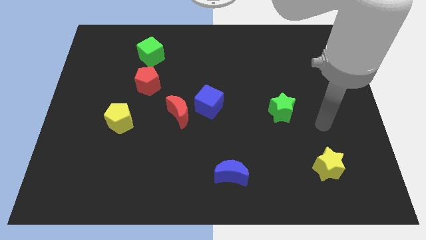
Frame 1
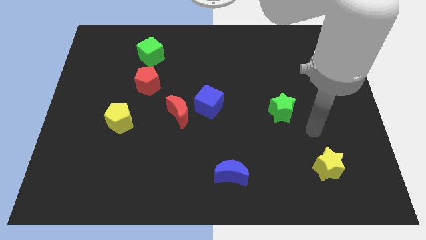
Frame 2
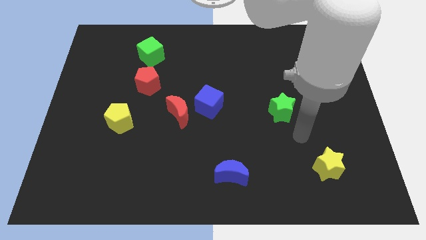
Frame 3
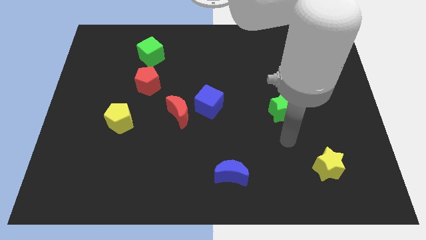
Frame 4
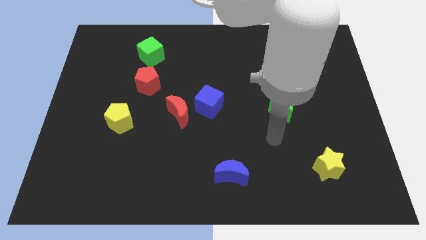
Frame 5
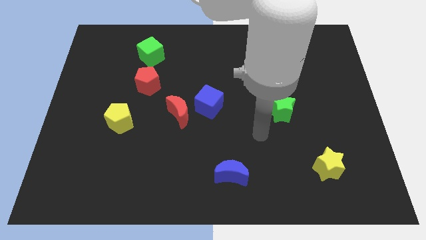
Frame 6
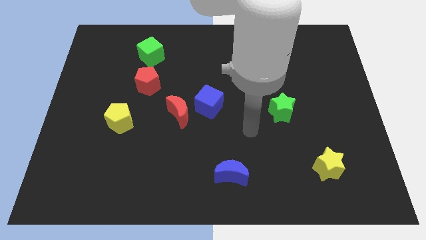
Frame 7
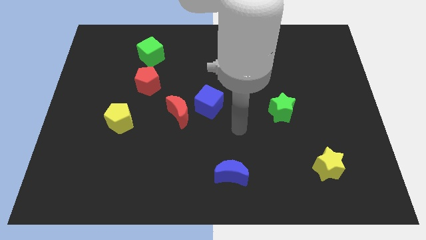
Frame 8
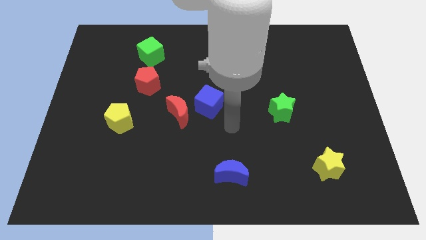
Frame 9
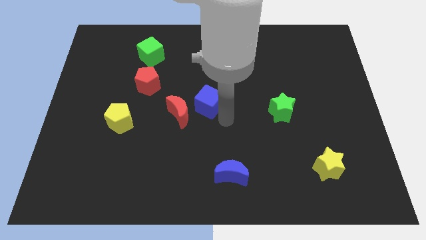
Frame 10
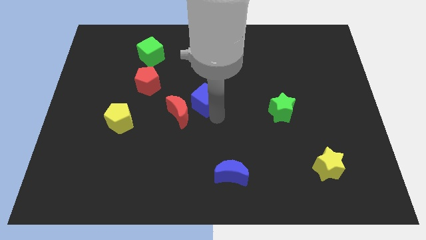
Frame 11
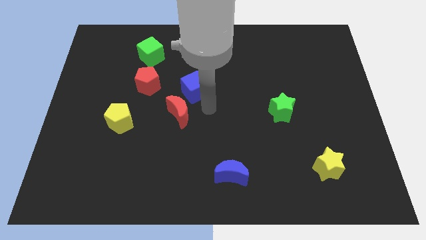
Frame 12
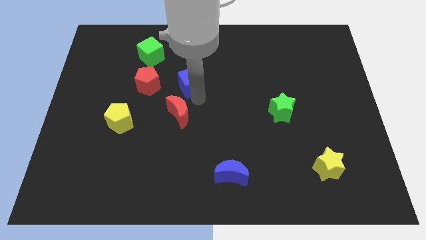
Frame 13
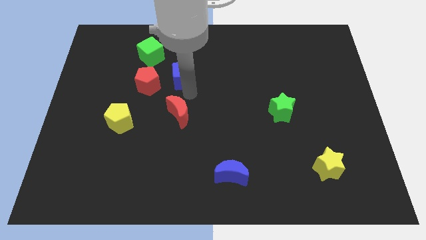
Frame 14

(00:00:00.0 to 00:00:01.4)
separate the red moon from the blue cube

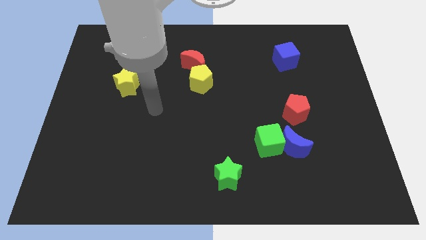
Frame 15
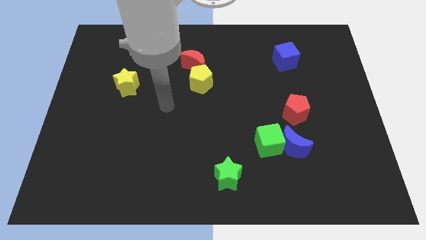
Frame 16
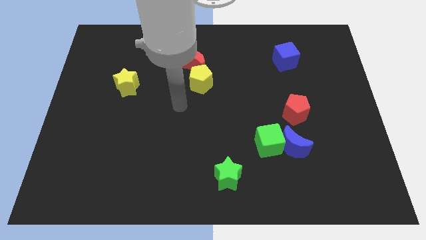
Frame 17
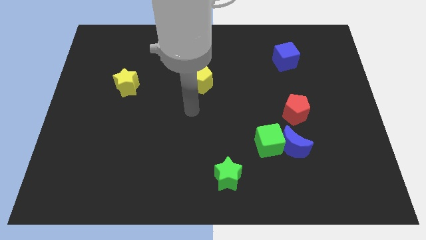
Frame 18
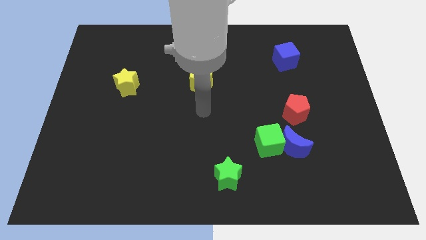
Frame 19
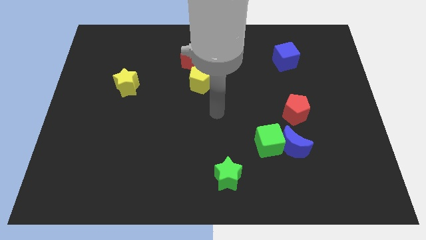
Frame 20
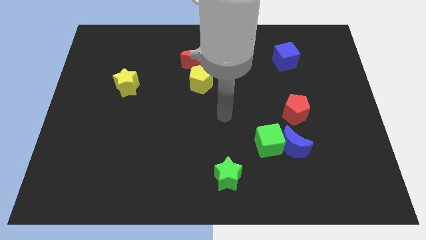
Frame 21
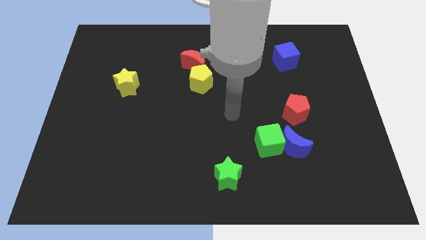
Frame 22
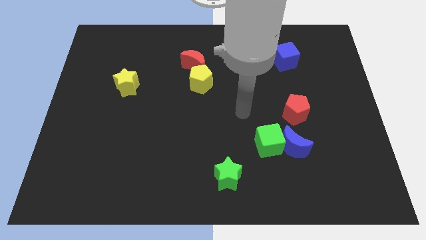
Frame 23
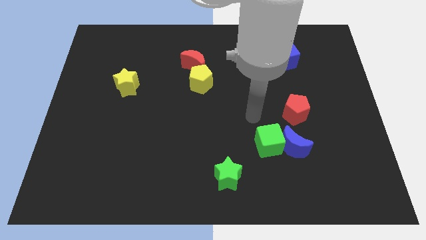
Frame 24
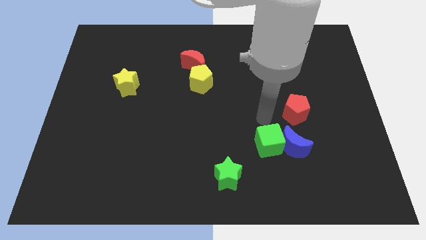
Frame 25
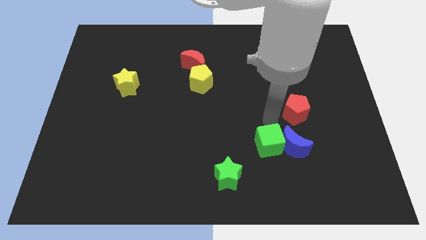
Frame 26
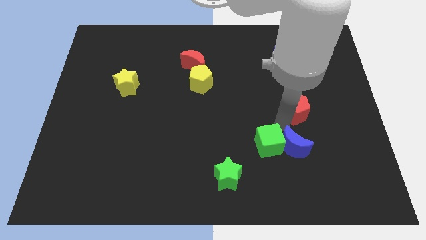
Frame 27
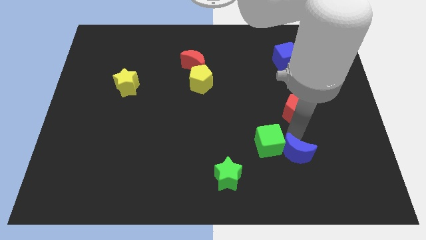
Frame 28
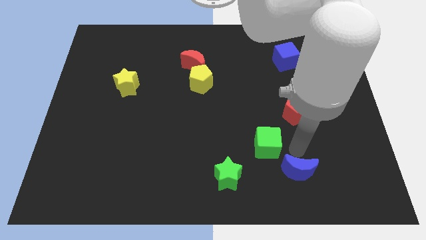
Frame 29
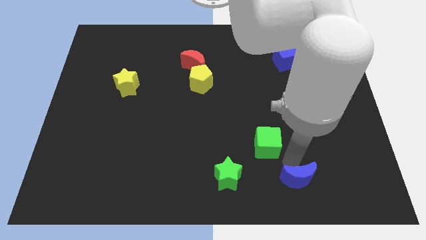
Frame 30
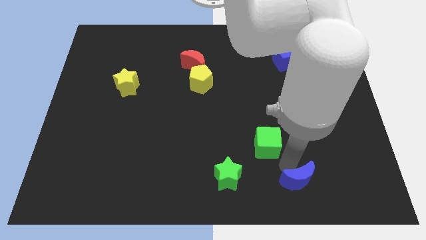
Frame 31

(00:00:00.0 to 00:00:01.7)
pull the green cube apart from the blue moon

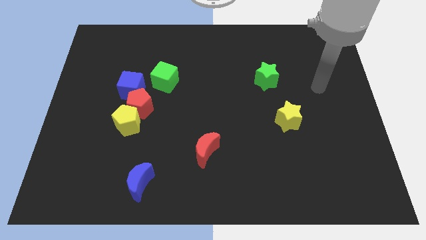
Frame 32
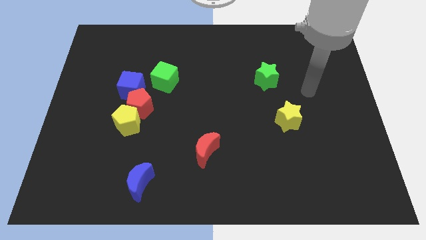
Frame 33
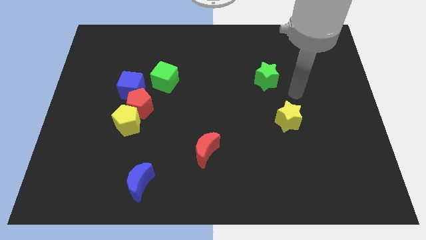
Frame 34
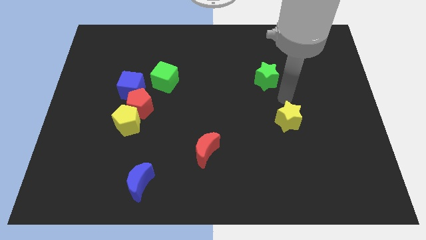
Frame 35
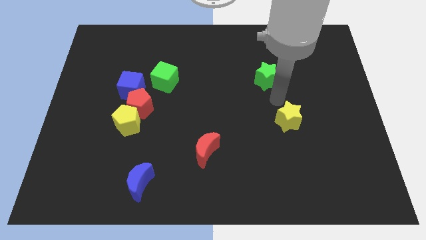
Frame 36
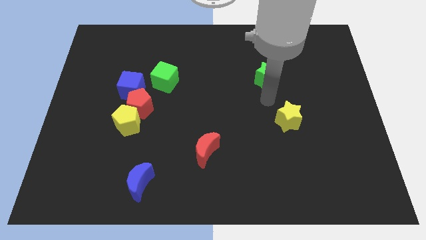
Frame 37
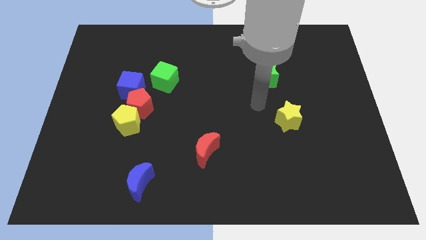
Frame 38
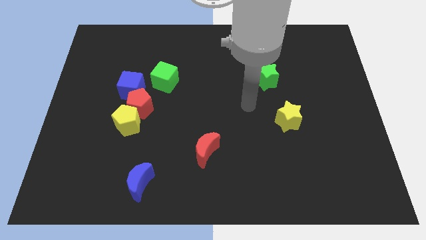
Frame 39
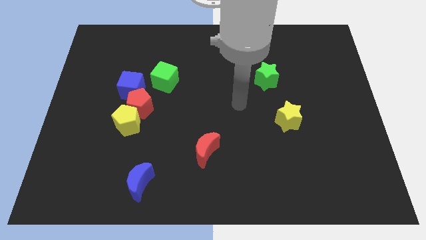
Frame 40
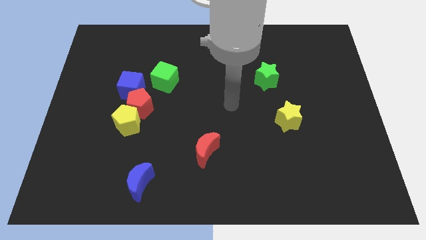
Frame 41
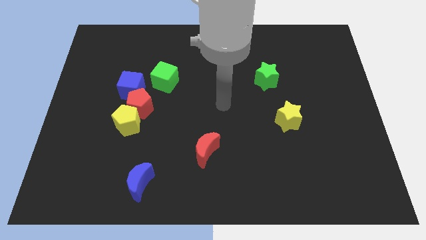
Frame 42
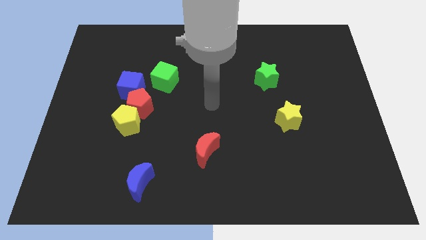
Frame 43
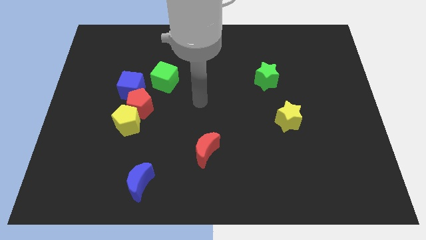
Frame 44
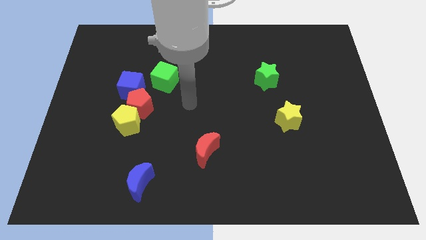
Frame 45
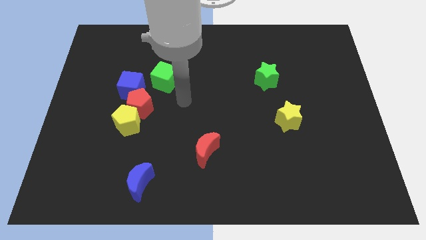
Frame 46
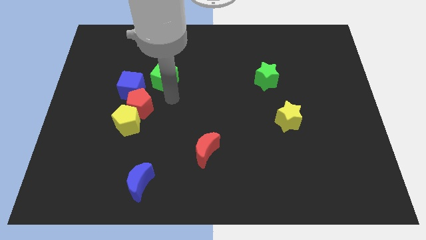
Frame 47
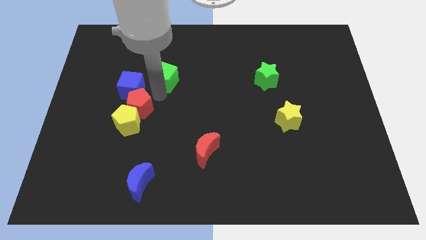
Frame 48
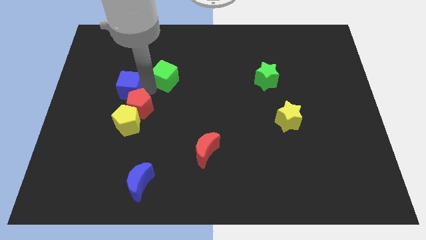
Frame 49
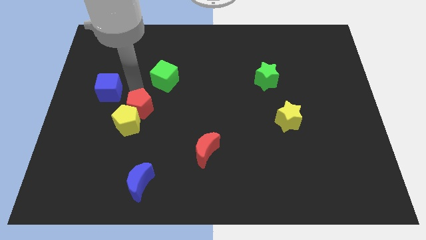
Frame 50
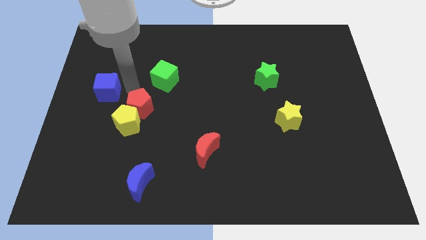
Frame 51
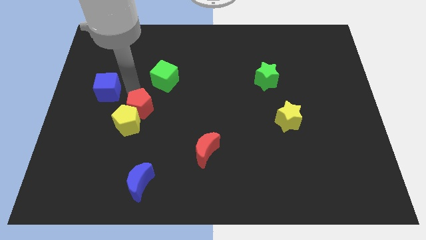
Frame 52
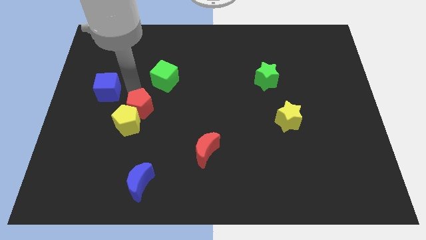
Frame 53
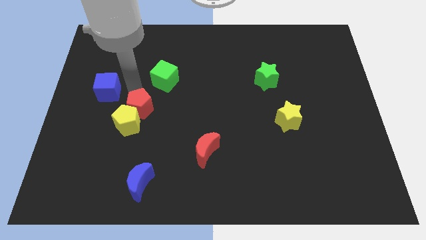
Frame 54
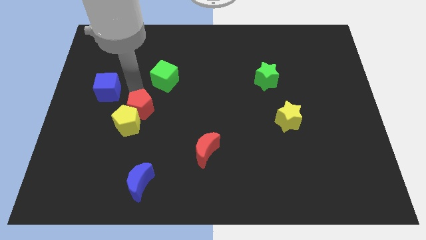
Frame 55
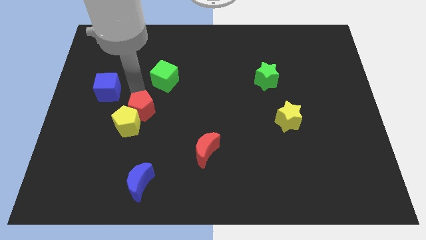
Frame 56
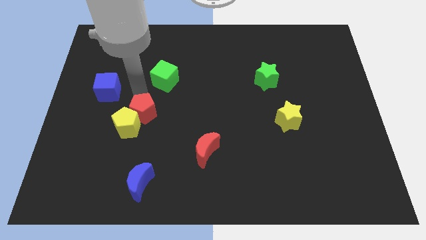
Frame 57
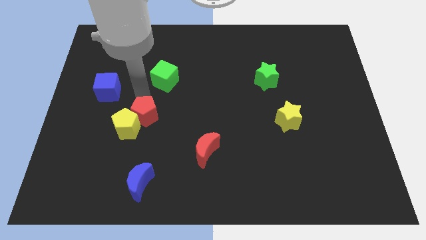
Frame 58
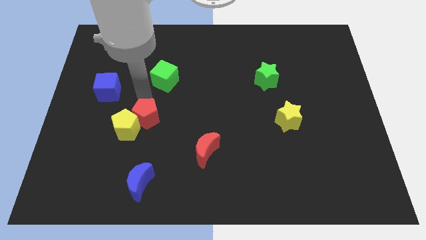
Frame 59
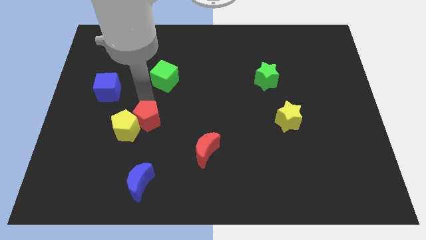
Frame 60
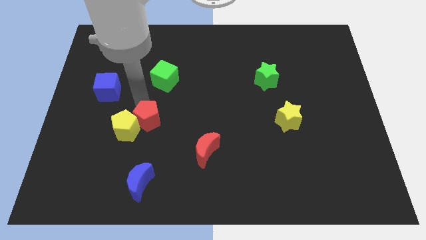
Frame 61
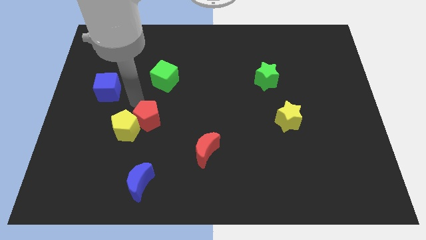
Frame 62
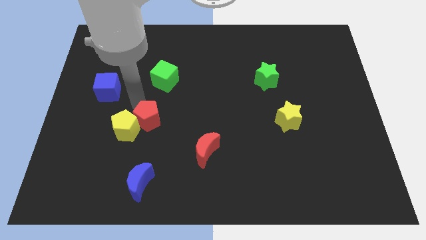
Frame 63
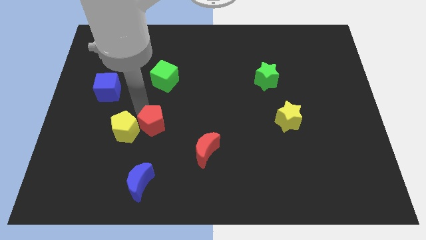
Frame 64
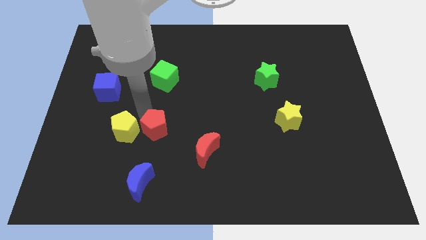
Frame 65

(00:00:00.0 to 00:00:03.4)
move the red pentagon away from the yellow pentagon, blue cube, and green cube

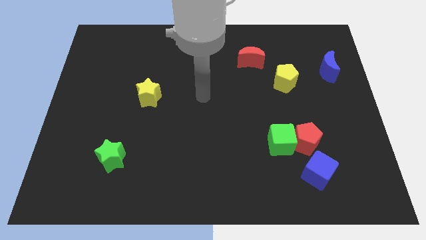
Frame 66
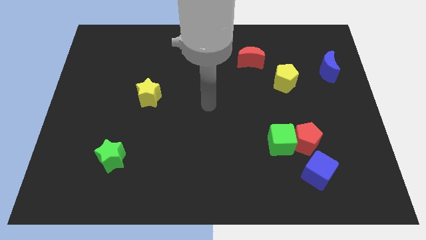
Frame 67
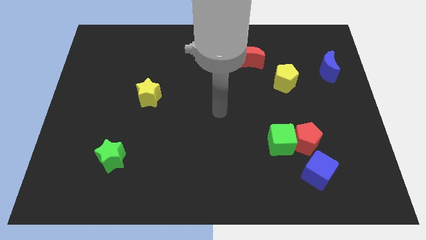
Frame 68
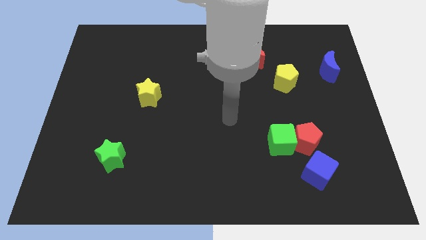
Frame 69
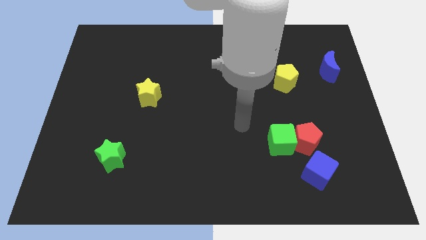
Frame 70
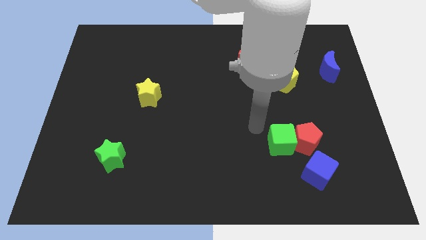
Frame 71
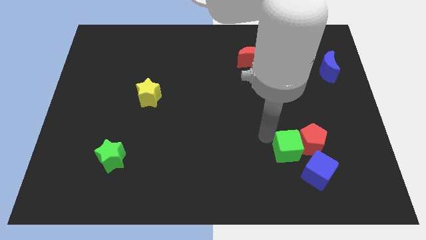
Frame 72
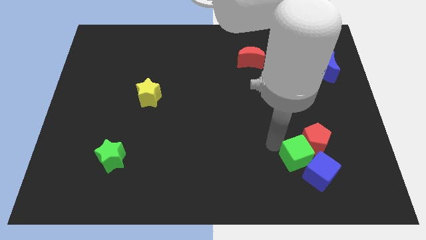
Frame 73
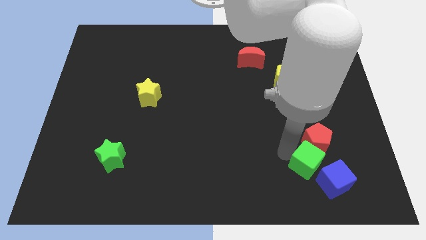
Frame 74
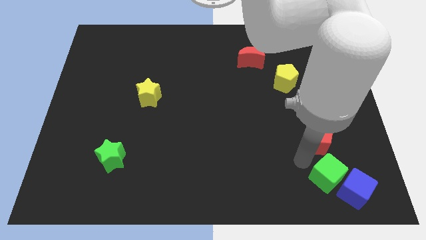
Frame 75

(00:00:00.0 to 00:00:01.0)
pull the red pentagon apart from the green cube and blue cube

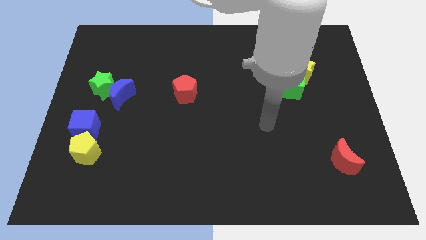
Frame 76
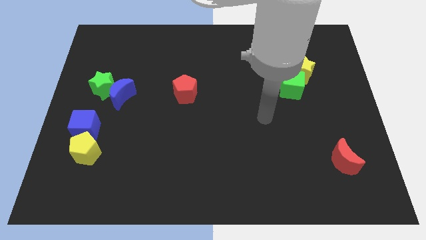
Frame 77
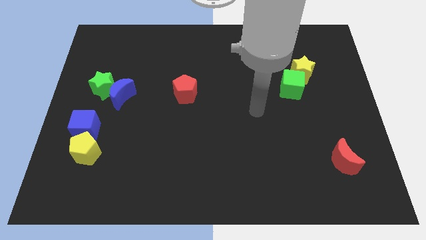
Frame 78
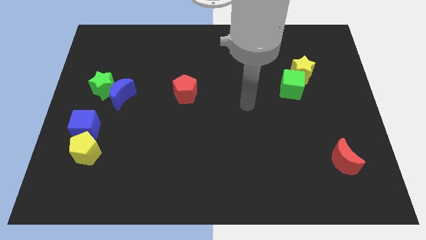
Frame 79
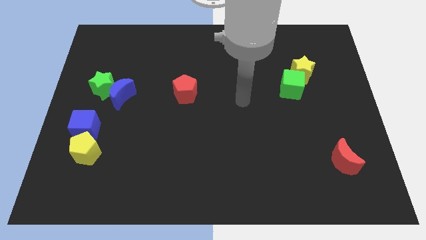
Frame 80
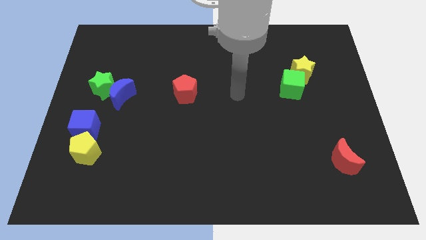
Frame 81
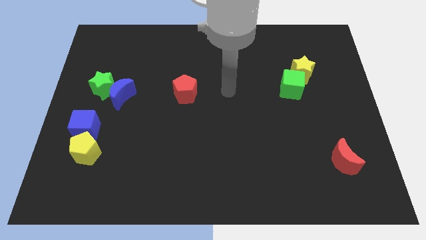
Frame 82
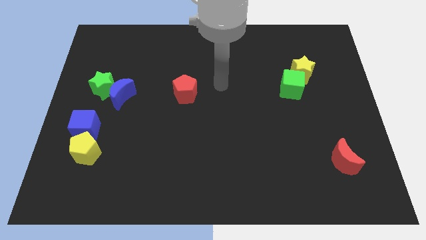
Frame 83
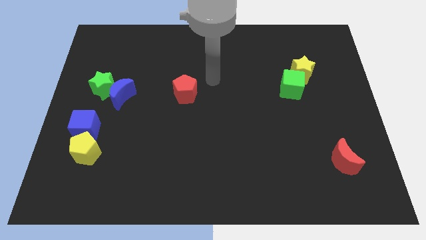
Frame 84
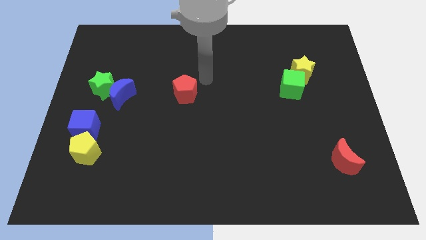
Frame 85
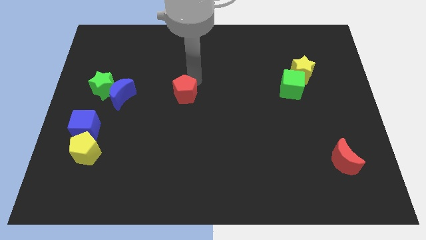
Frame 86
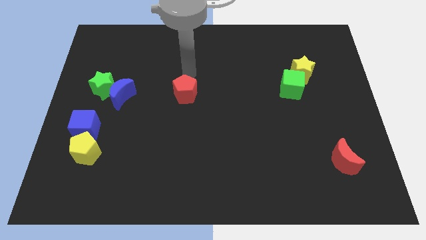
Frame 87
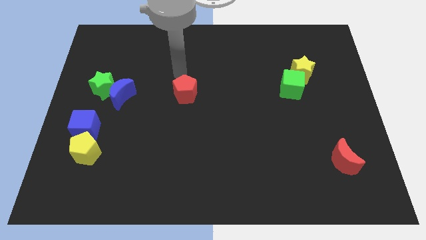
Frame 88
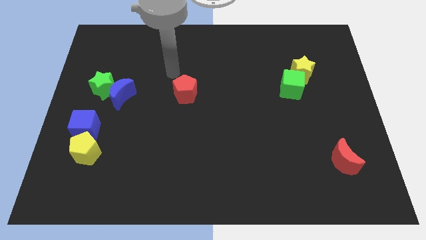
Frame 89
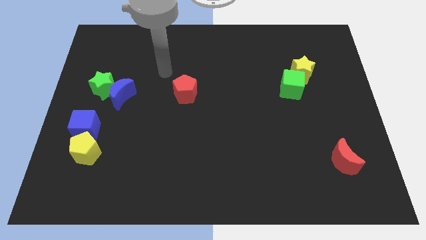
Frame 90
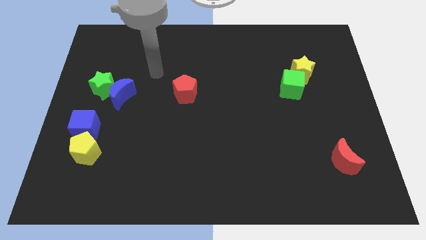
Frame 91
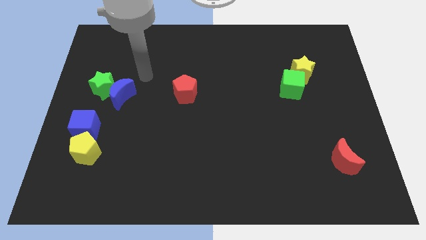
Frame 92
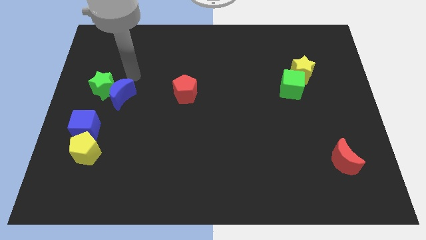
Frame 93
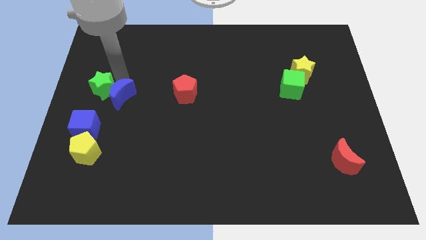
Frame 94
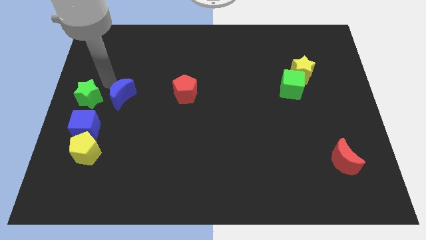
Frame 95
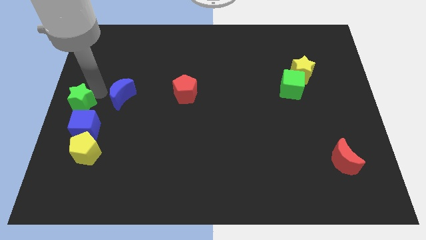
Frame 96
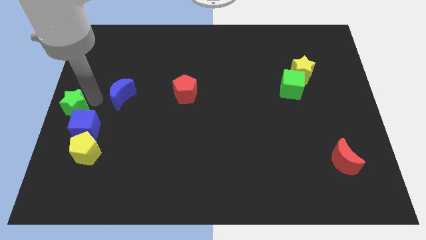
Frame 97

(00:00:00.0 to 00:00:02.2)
separate the blue moon from the green star
